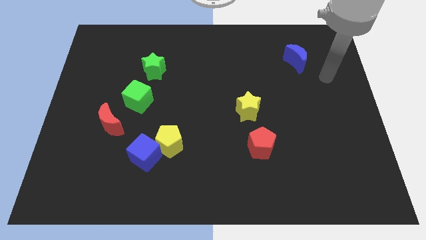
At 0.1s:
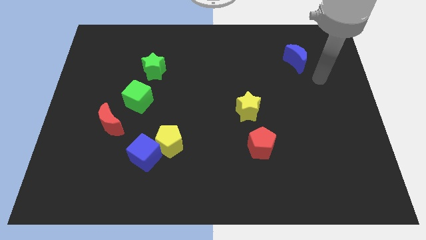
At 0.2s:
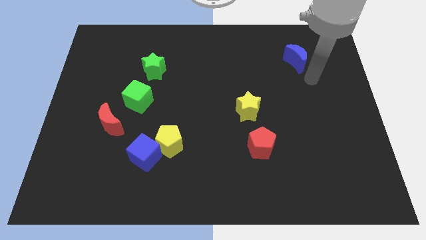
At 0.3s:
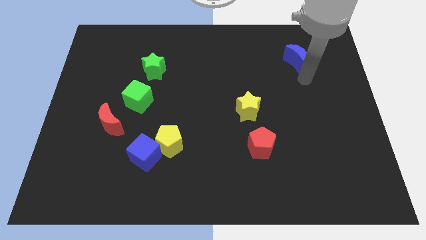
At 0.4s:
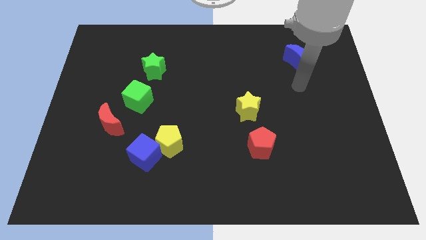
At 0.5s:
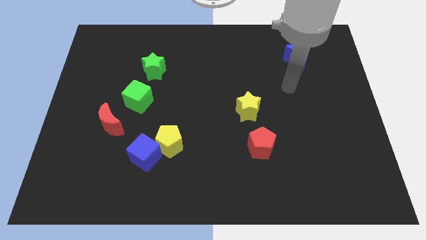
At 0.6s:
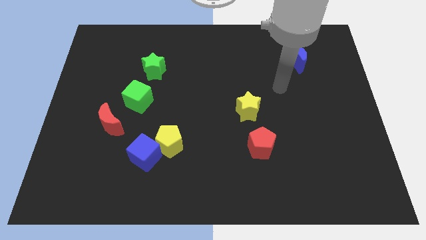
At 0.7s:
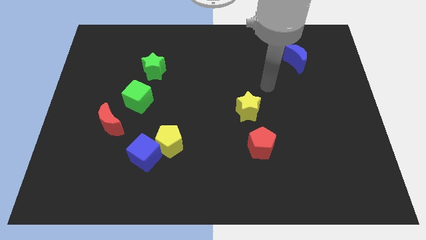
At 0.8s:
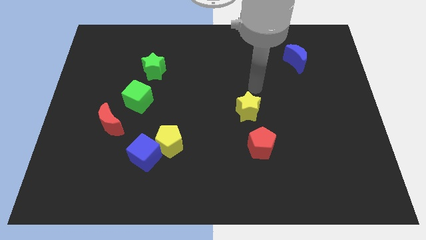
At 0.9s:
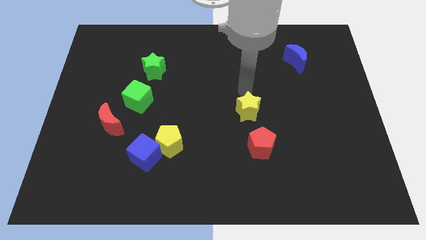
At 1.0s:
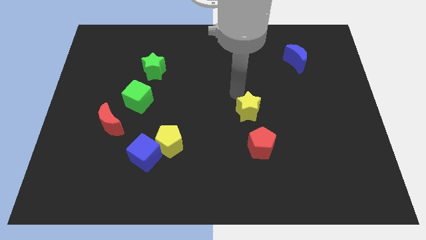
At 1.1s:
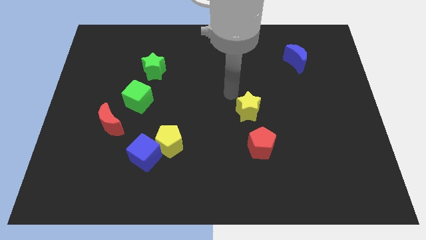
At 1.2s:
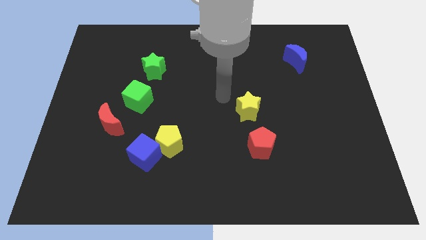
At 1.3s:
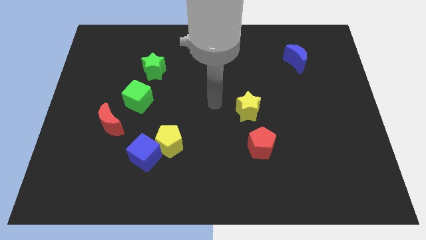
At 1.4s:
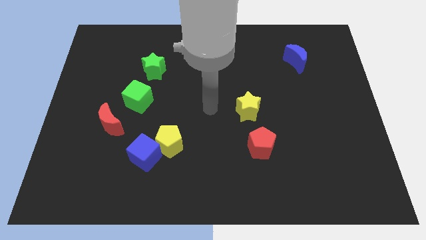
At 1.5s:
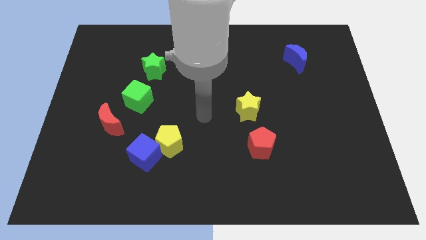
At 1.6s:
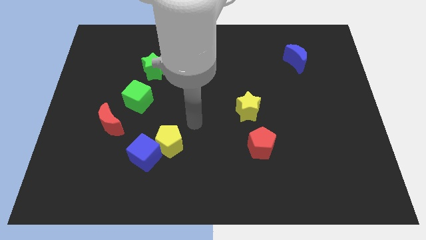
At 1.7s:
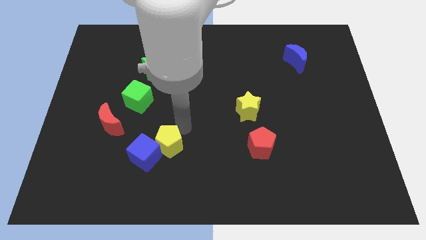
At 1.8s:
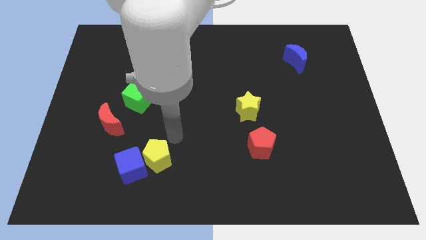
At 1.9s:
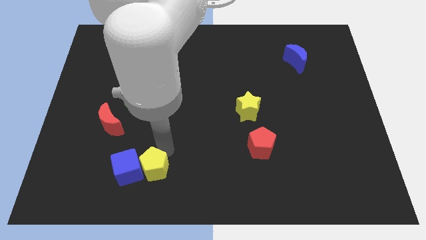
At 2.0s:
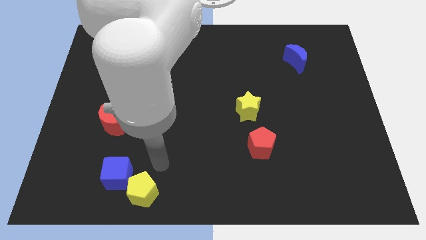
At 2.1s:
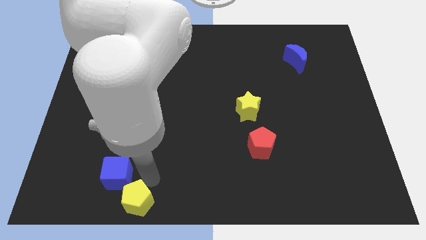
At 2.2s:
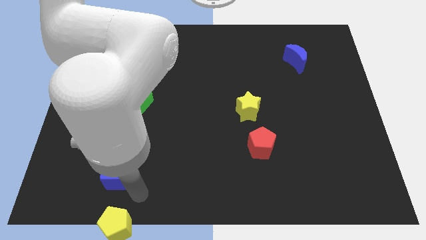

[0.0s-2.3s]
move the blue cube away from the yellow pentagon

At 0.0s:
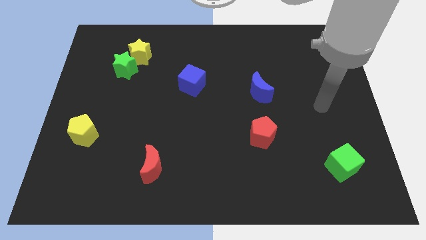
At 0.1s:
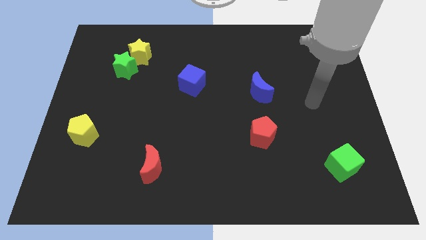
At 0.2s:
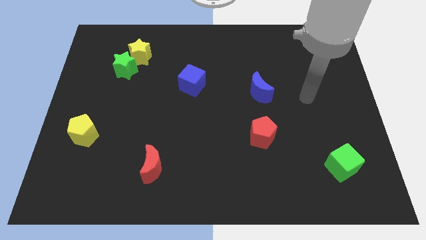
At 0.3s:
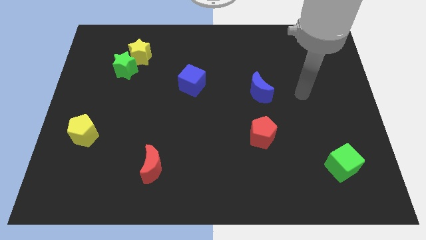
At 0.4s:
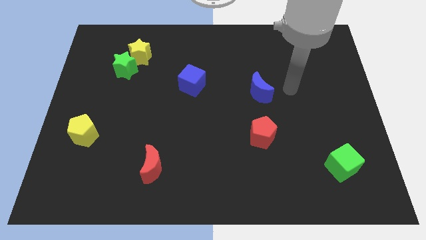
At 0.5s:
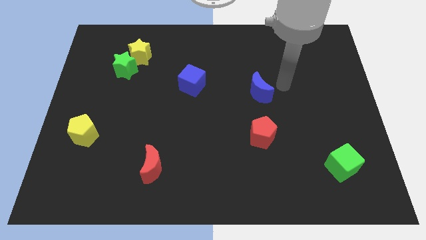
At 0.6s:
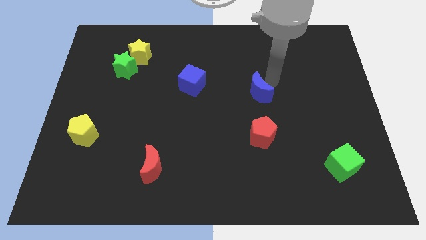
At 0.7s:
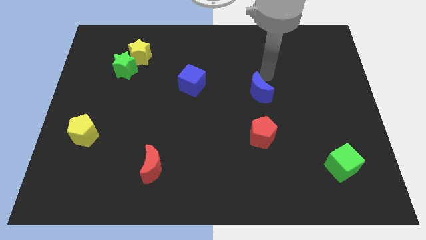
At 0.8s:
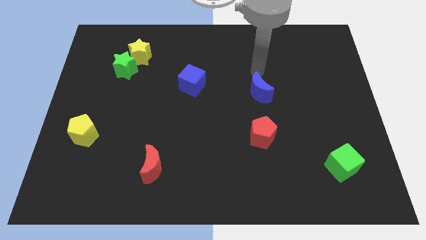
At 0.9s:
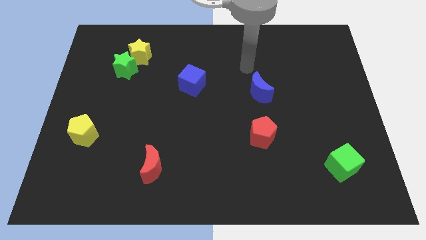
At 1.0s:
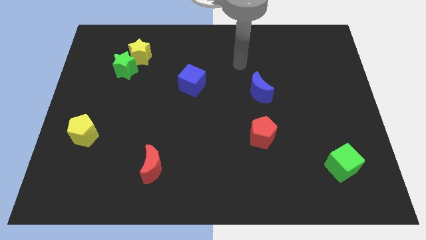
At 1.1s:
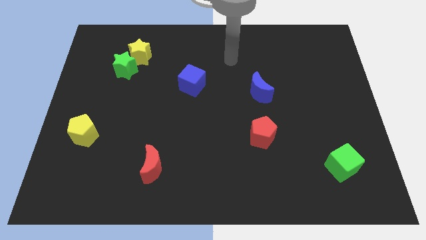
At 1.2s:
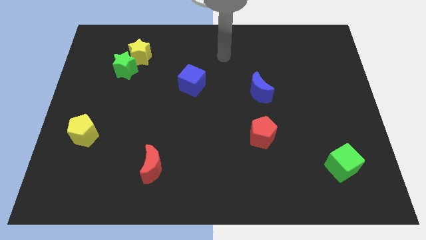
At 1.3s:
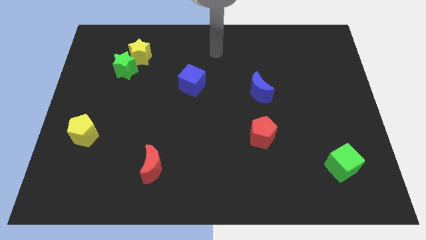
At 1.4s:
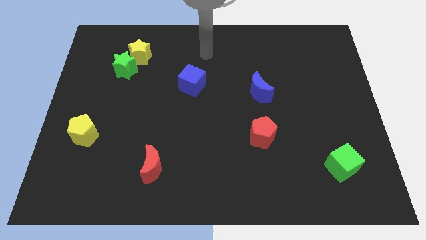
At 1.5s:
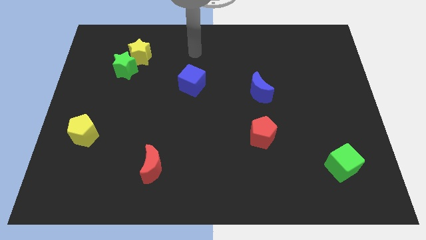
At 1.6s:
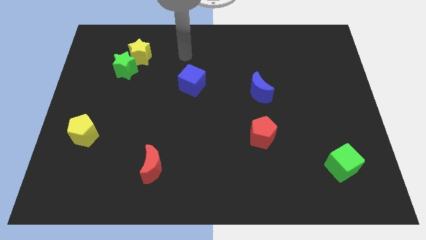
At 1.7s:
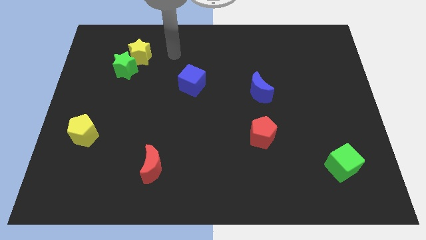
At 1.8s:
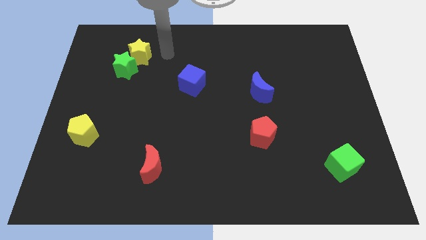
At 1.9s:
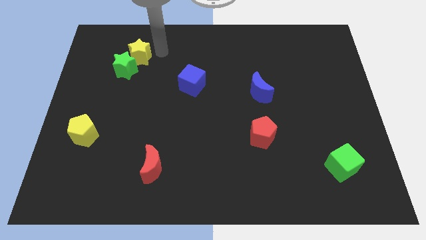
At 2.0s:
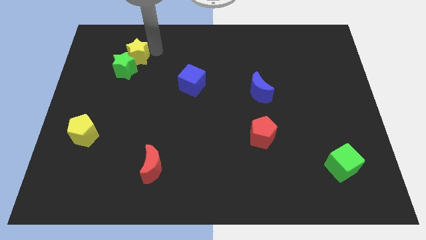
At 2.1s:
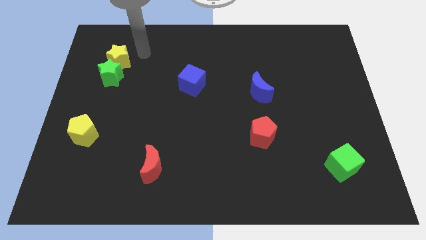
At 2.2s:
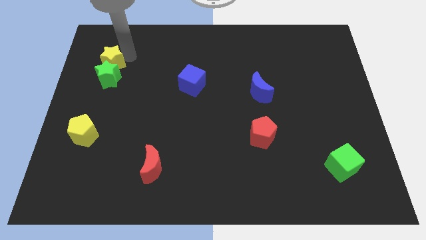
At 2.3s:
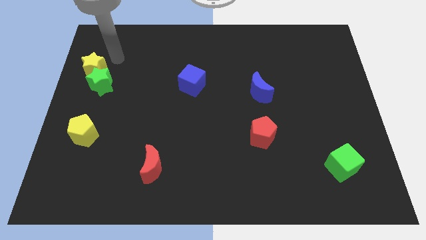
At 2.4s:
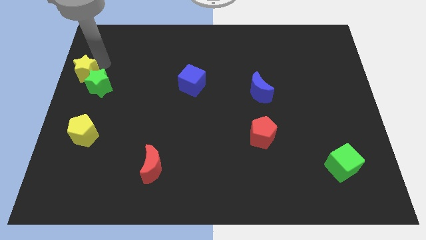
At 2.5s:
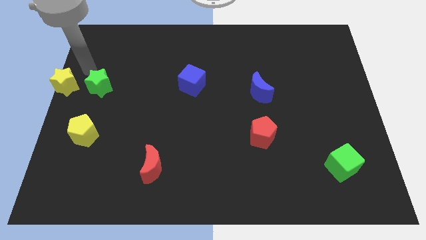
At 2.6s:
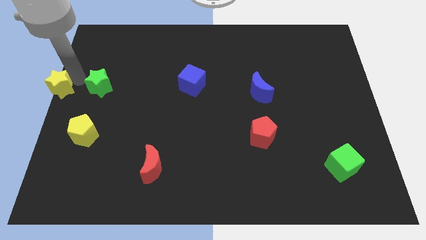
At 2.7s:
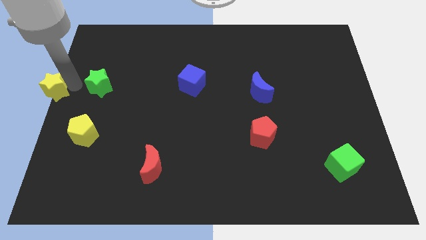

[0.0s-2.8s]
separate the green star from the yellow star

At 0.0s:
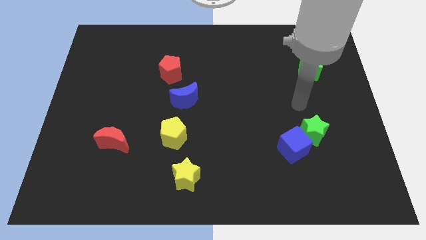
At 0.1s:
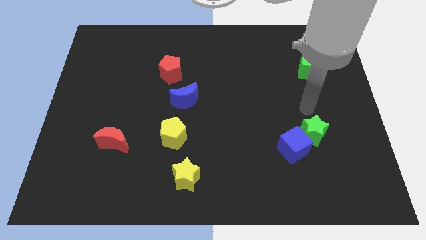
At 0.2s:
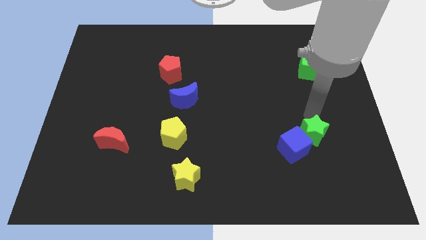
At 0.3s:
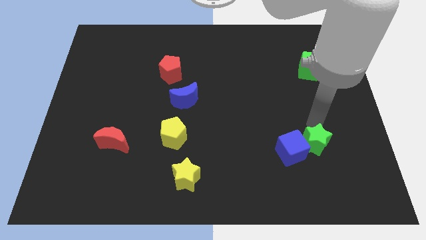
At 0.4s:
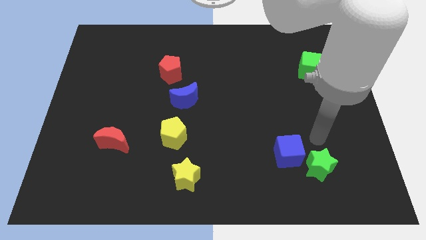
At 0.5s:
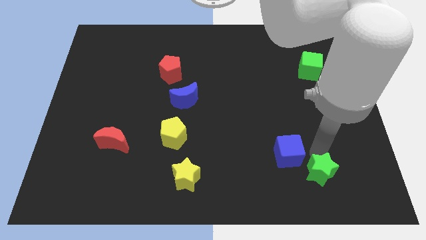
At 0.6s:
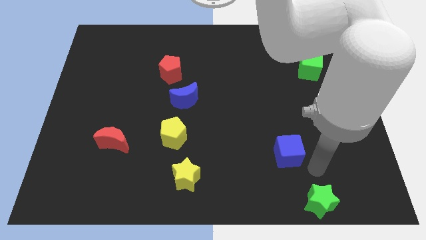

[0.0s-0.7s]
move the blue cube away from the green star

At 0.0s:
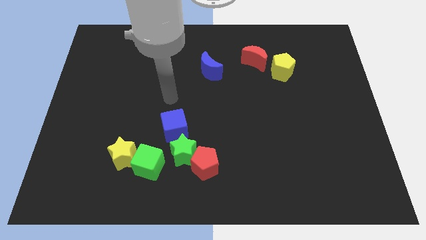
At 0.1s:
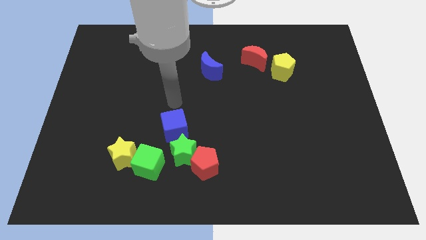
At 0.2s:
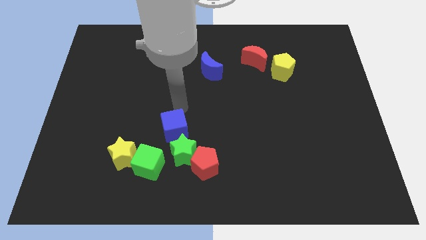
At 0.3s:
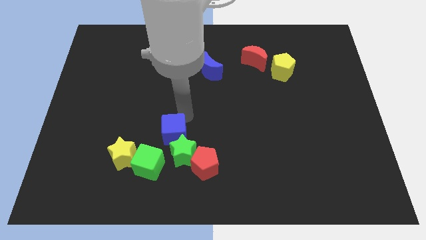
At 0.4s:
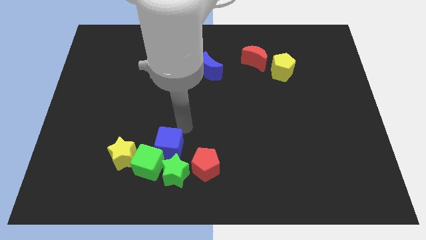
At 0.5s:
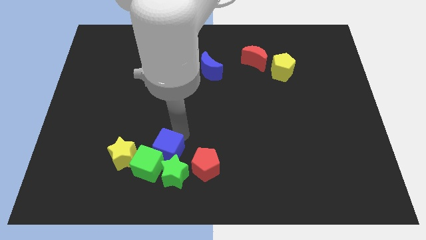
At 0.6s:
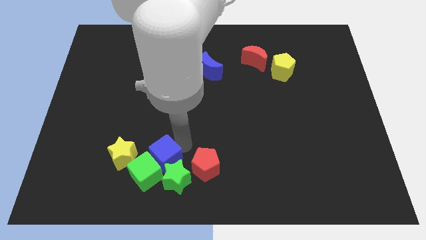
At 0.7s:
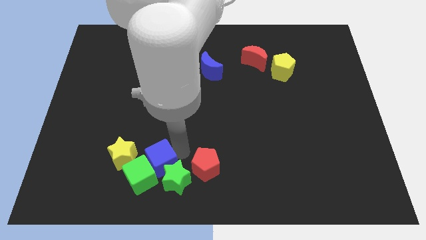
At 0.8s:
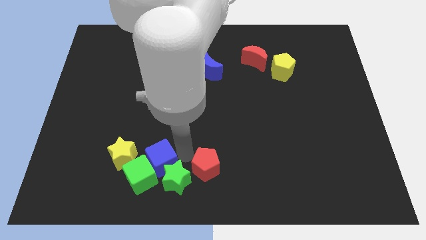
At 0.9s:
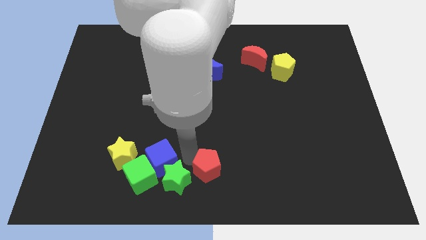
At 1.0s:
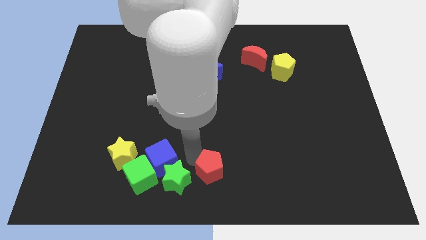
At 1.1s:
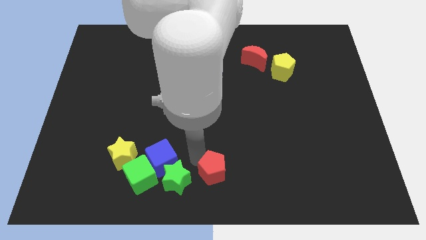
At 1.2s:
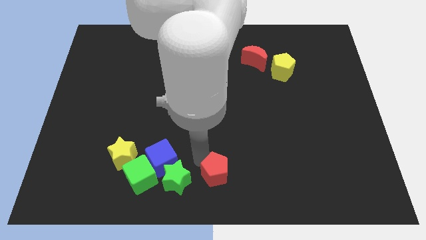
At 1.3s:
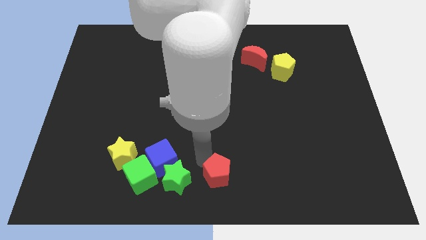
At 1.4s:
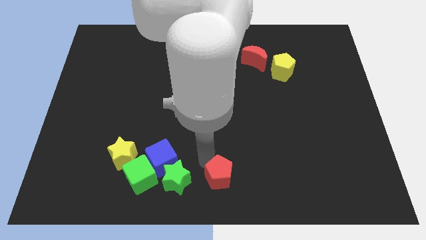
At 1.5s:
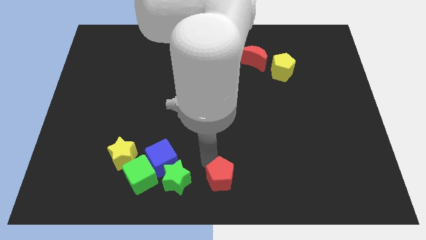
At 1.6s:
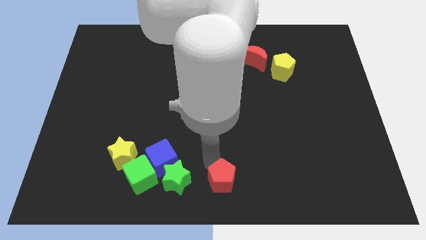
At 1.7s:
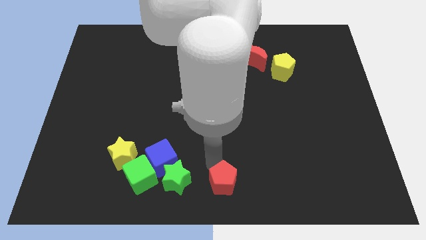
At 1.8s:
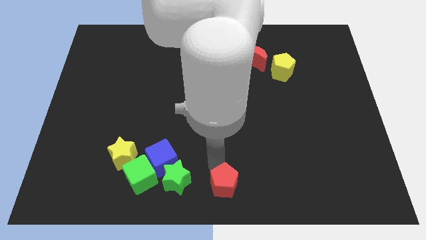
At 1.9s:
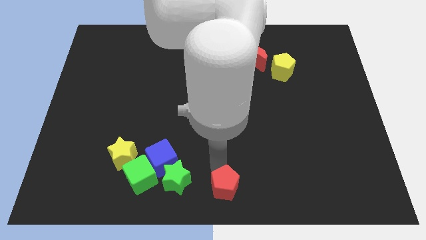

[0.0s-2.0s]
move the red pentagon away from the green star

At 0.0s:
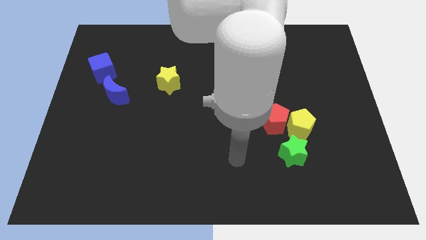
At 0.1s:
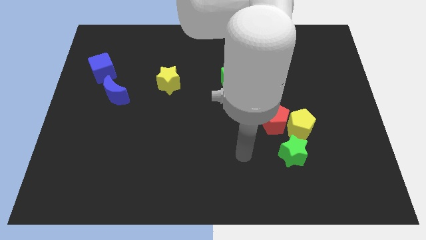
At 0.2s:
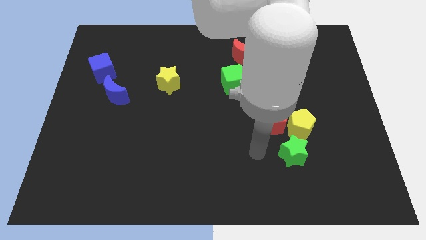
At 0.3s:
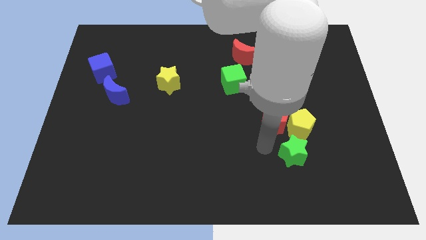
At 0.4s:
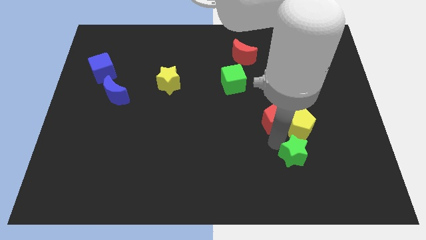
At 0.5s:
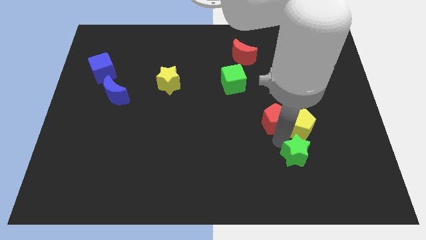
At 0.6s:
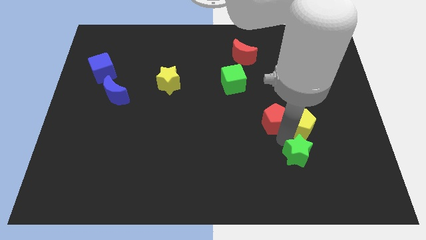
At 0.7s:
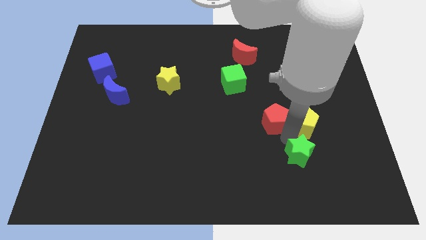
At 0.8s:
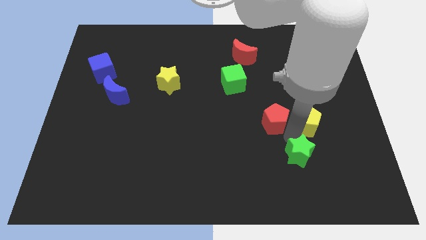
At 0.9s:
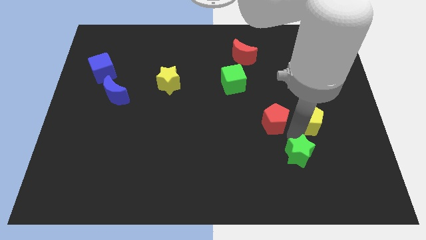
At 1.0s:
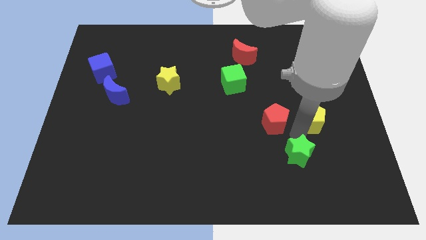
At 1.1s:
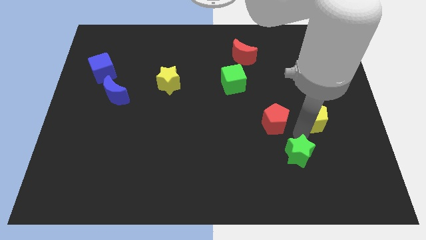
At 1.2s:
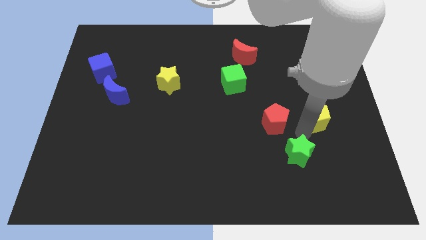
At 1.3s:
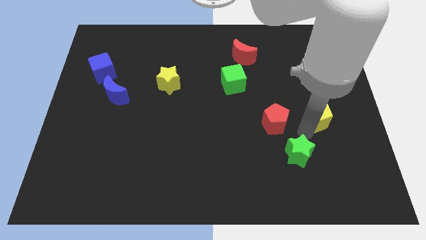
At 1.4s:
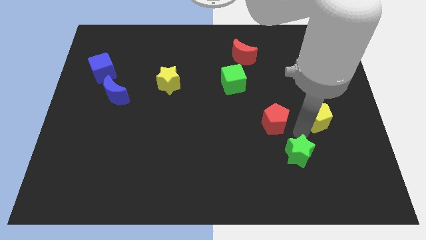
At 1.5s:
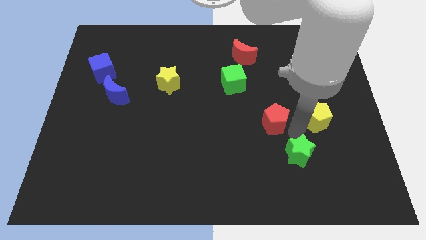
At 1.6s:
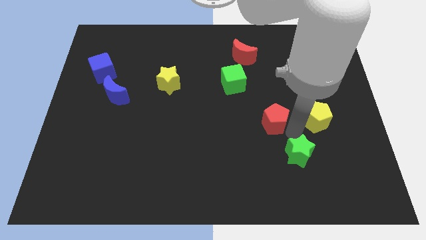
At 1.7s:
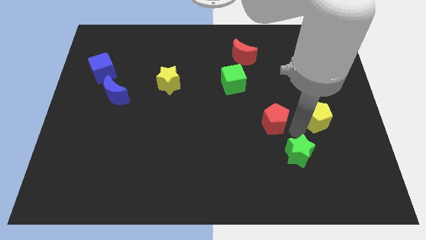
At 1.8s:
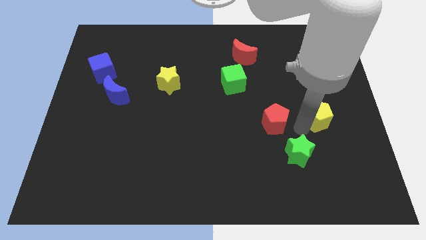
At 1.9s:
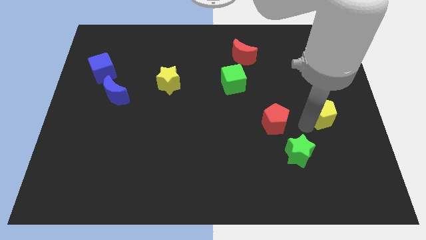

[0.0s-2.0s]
separate the yellow pentagon from the red pentagon and green star
